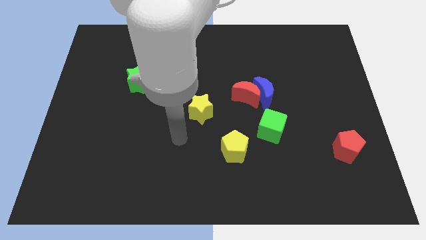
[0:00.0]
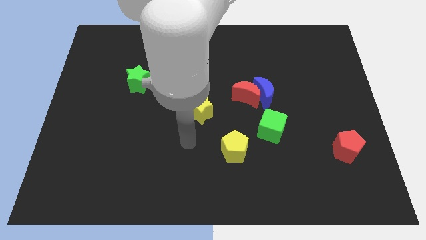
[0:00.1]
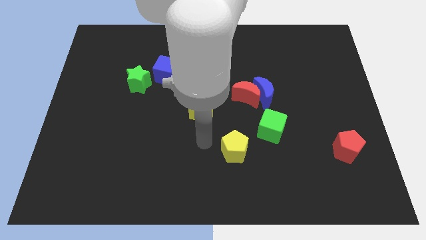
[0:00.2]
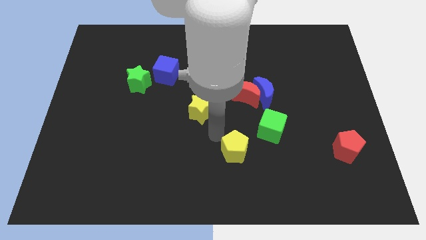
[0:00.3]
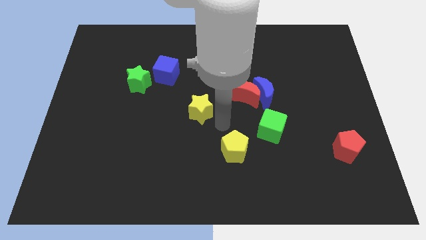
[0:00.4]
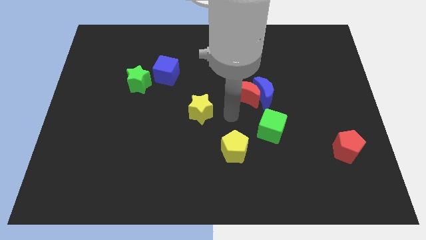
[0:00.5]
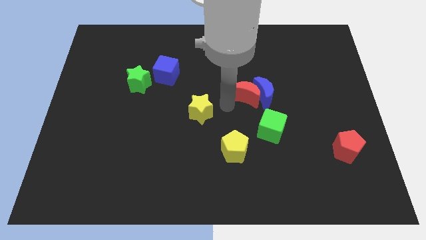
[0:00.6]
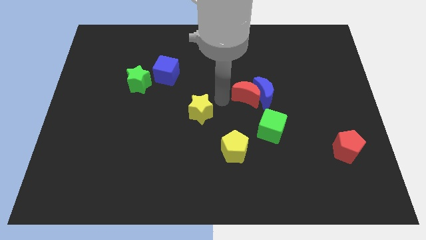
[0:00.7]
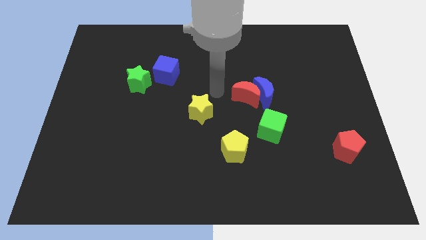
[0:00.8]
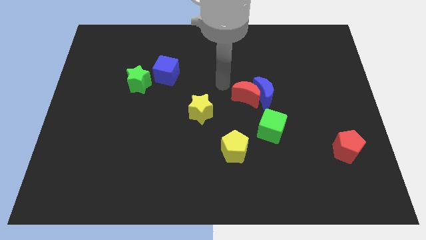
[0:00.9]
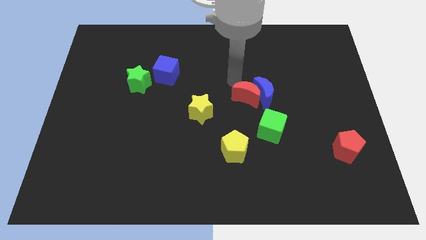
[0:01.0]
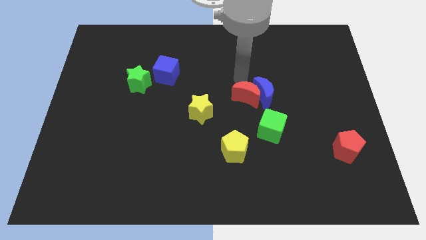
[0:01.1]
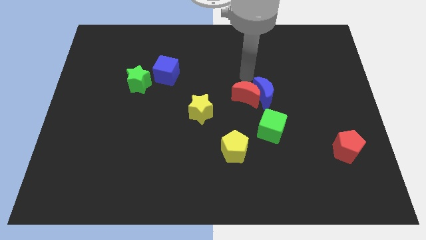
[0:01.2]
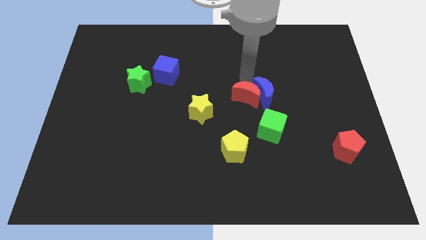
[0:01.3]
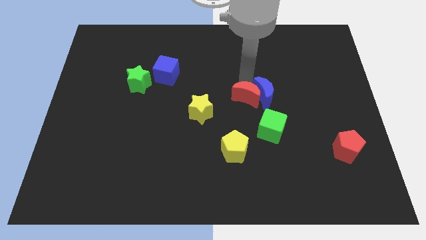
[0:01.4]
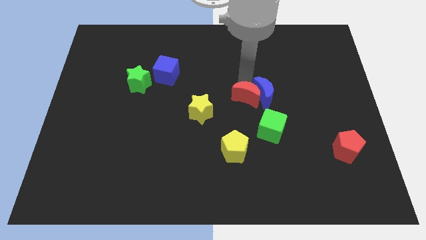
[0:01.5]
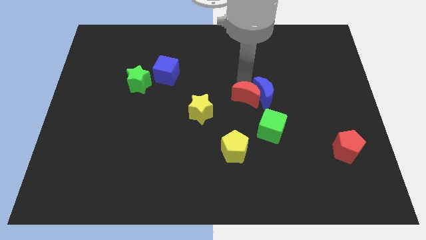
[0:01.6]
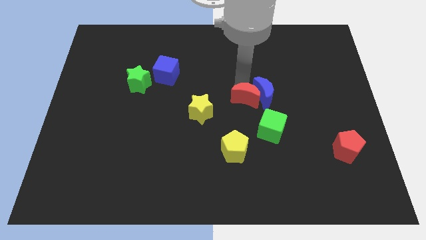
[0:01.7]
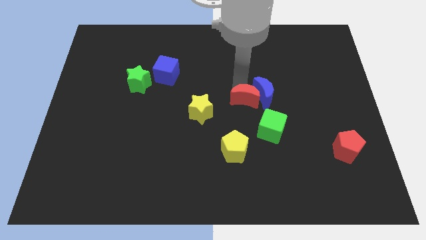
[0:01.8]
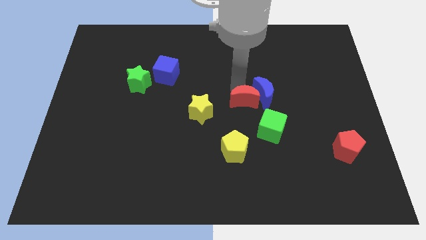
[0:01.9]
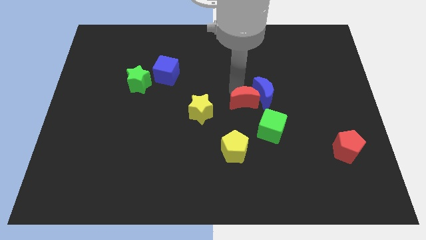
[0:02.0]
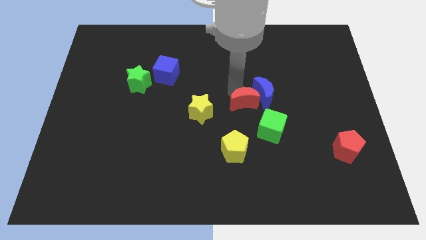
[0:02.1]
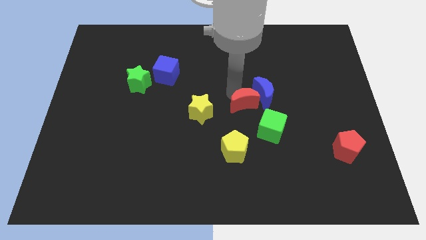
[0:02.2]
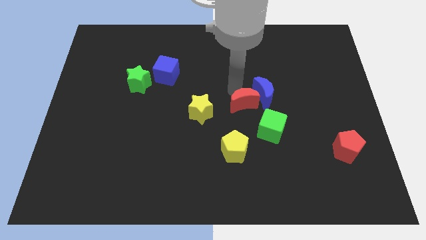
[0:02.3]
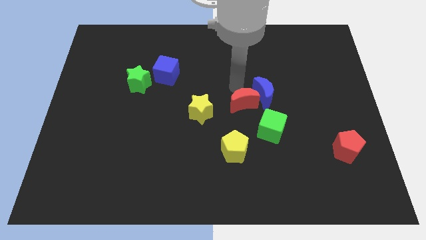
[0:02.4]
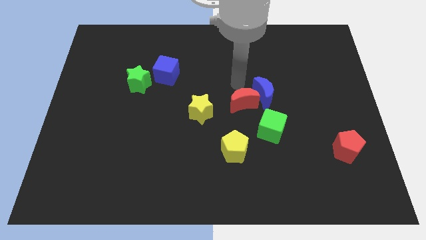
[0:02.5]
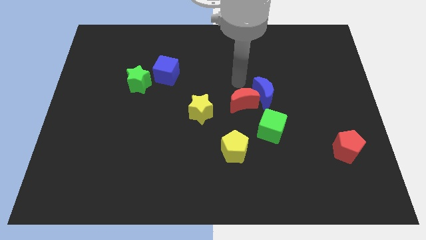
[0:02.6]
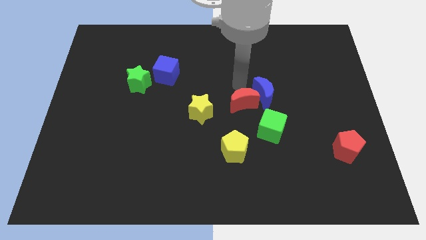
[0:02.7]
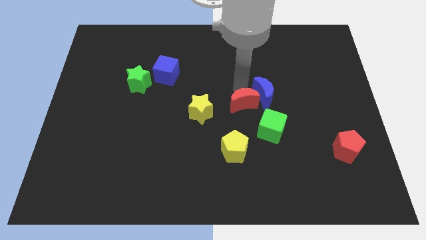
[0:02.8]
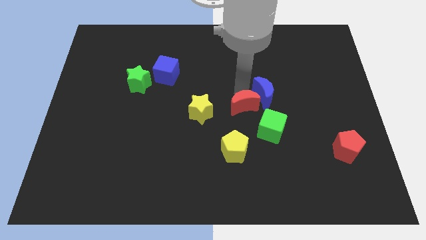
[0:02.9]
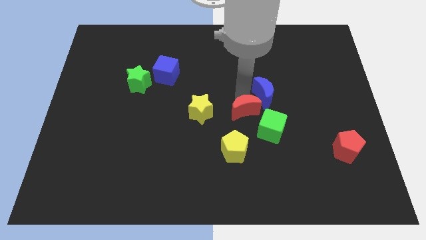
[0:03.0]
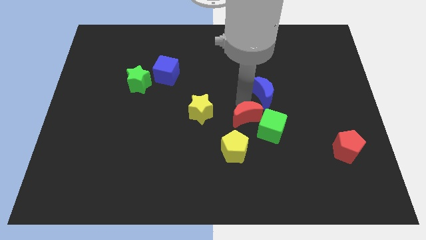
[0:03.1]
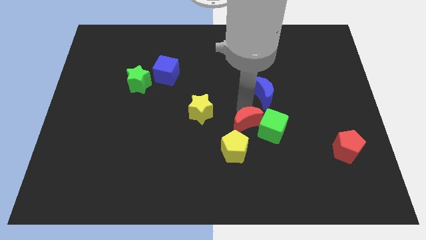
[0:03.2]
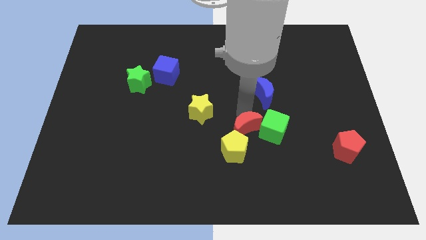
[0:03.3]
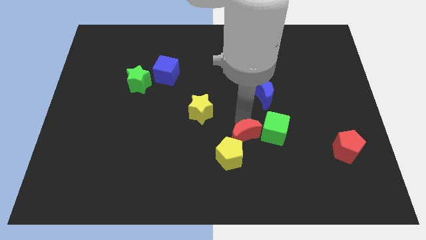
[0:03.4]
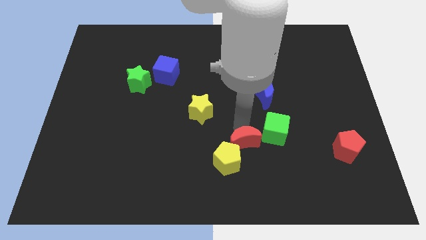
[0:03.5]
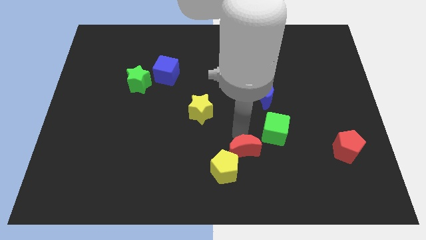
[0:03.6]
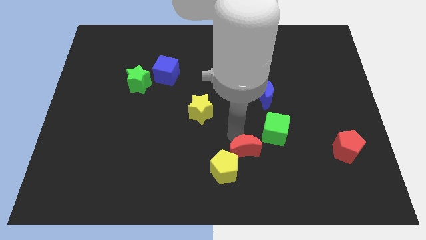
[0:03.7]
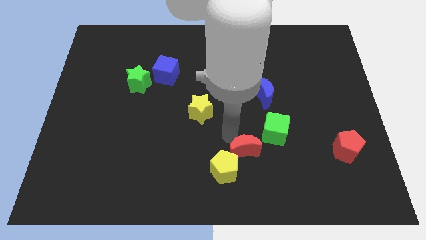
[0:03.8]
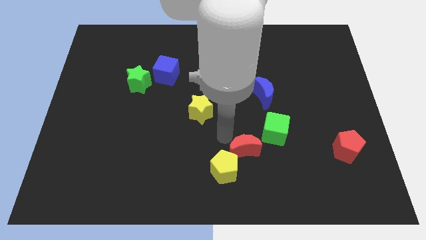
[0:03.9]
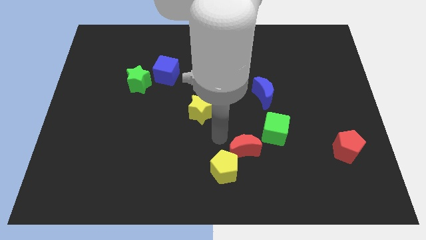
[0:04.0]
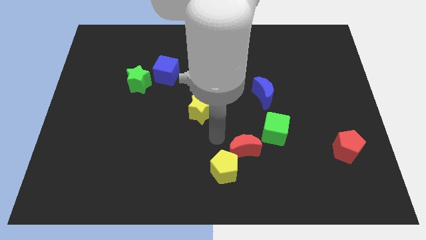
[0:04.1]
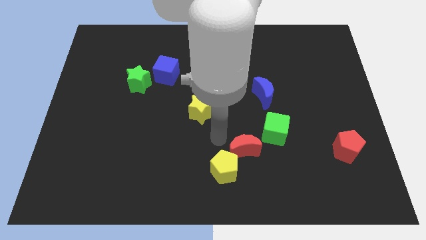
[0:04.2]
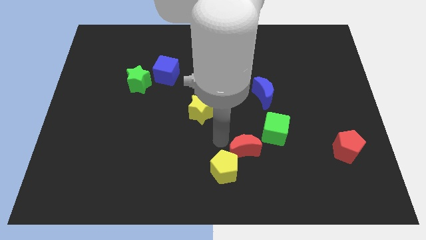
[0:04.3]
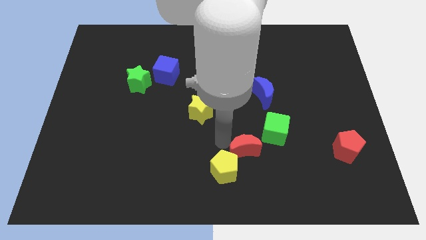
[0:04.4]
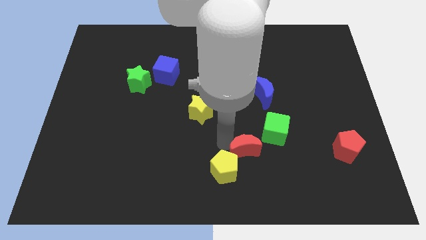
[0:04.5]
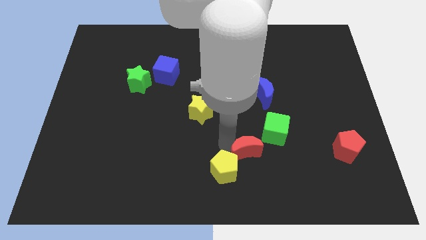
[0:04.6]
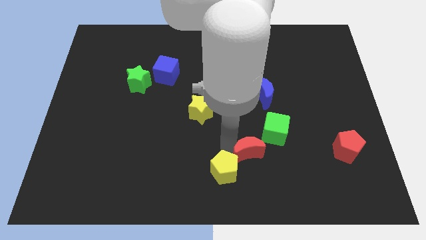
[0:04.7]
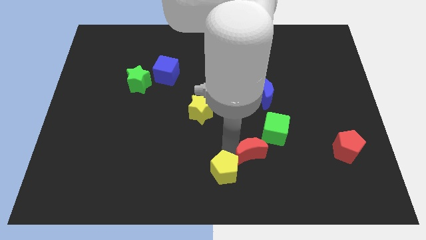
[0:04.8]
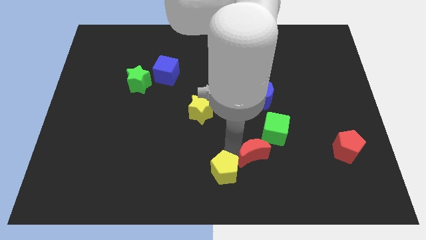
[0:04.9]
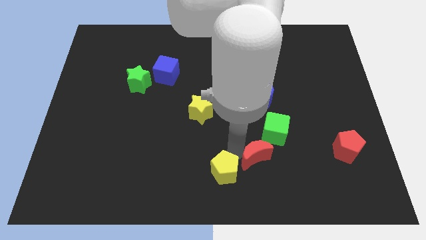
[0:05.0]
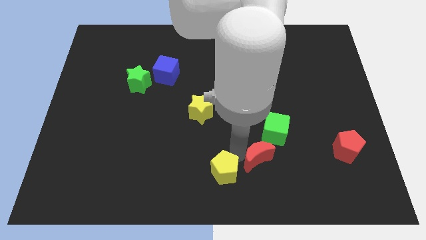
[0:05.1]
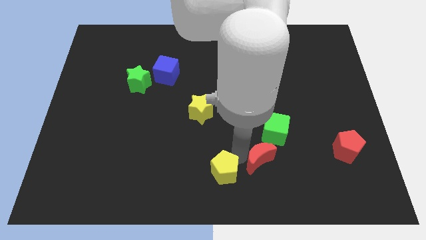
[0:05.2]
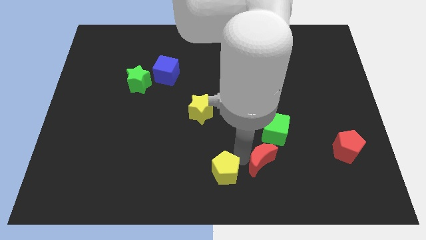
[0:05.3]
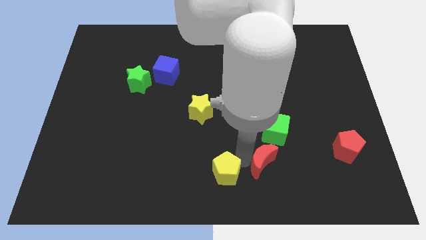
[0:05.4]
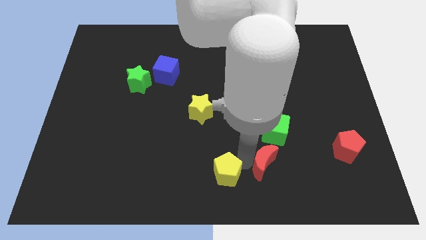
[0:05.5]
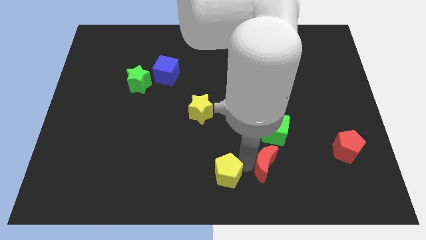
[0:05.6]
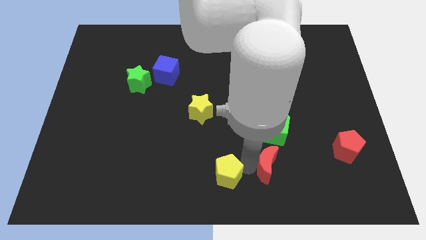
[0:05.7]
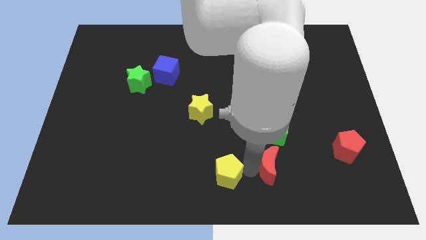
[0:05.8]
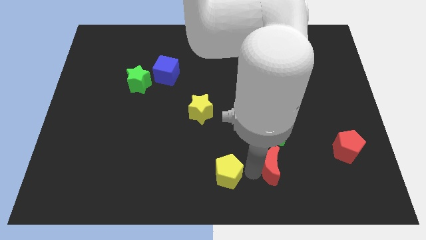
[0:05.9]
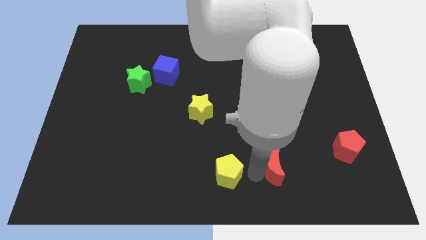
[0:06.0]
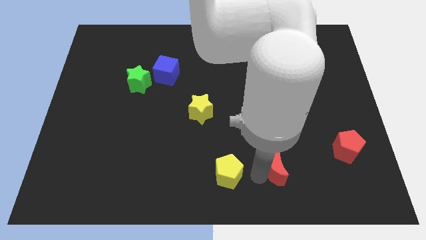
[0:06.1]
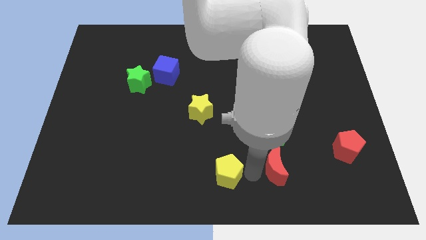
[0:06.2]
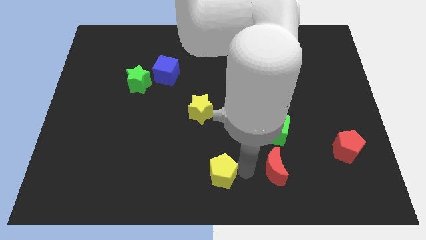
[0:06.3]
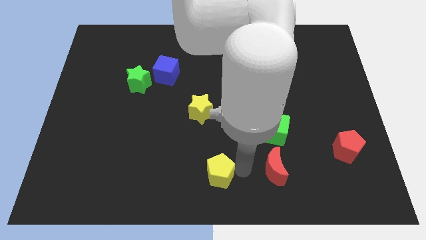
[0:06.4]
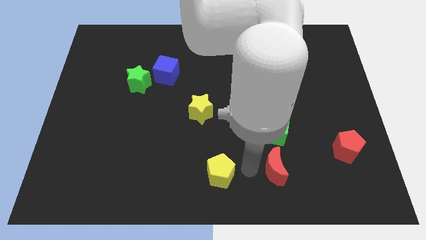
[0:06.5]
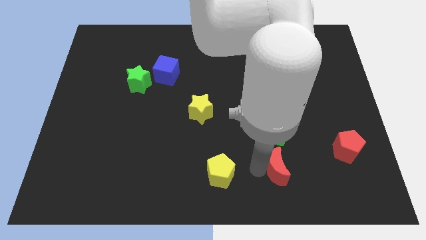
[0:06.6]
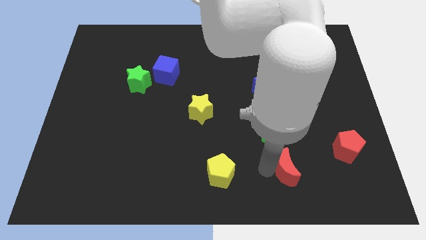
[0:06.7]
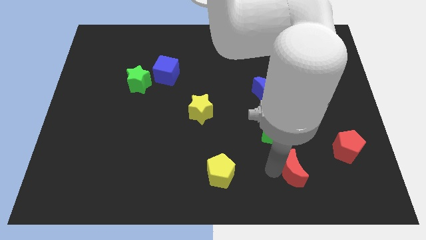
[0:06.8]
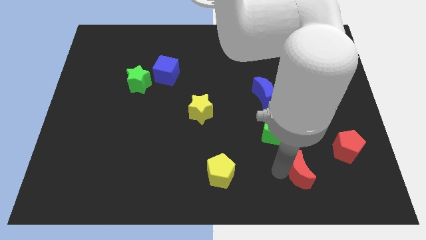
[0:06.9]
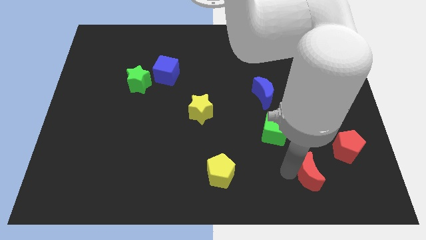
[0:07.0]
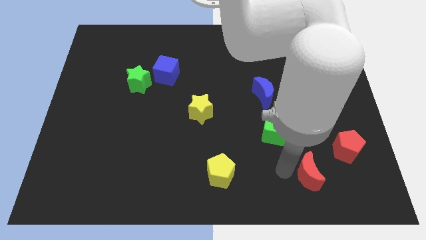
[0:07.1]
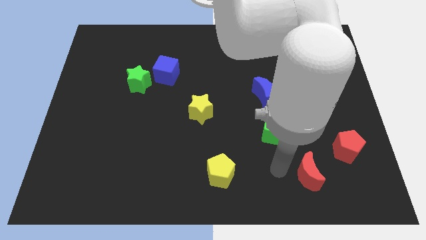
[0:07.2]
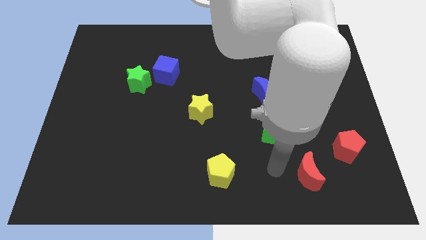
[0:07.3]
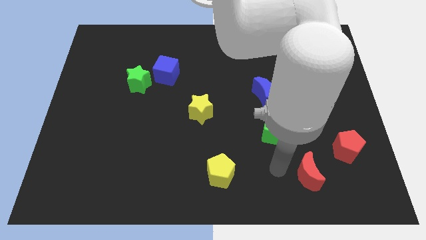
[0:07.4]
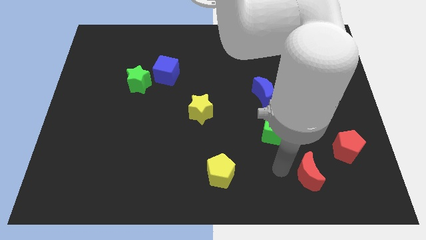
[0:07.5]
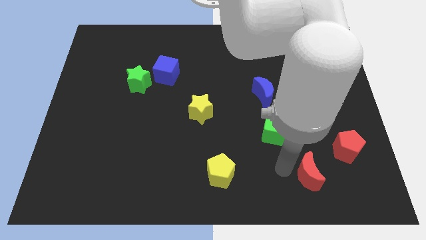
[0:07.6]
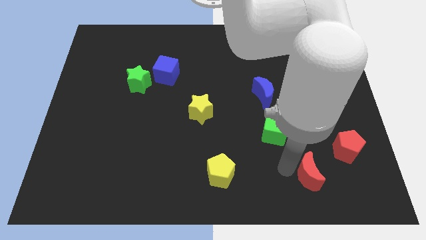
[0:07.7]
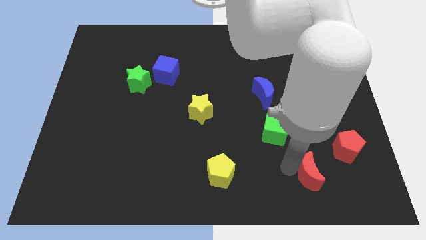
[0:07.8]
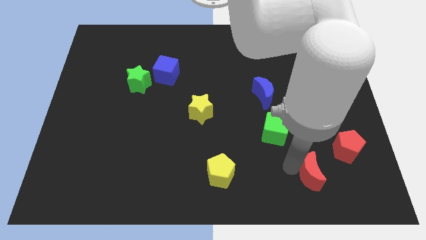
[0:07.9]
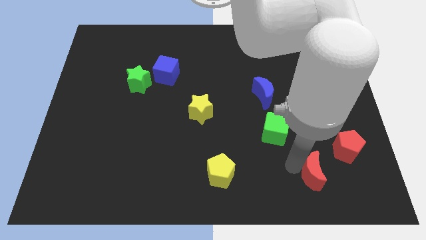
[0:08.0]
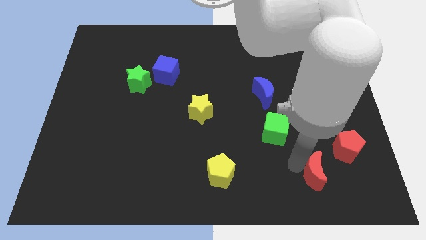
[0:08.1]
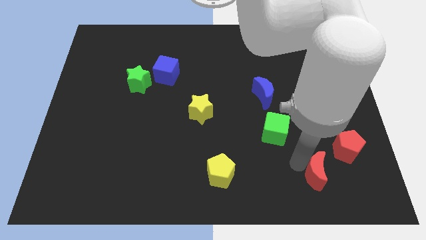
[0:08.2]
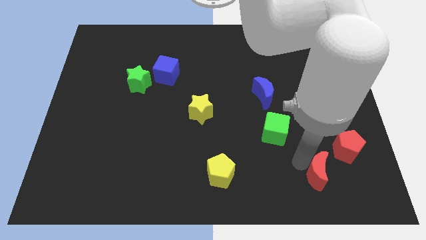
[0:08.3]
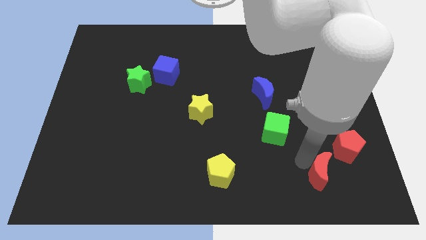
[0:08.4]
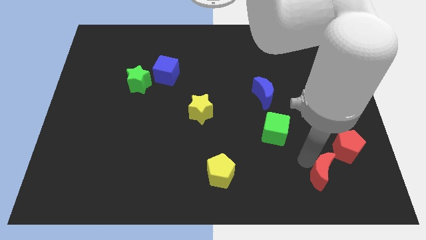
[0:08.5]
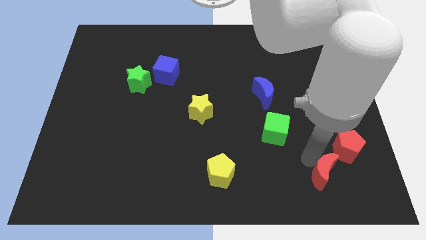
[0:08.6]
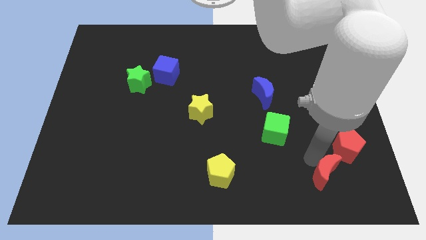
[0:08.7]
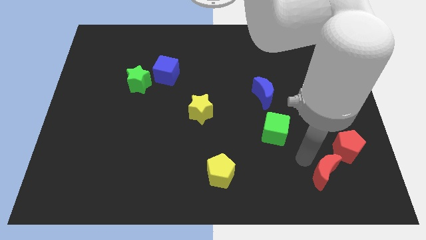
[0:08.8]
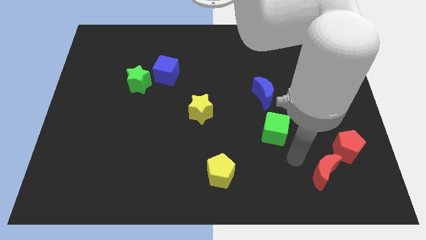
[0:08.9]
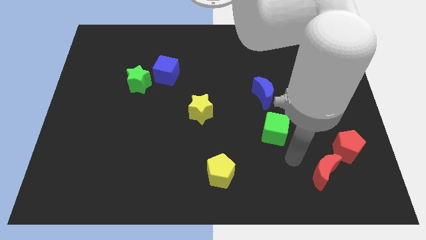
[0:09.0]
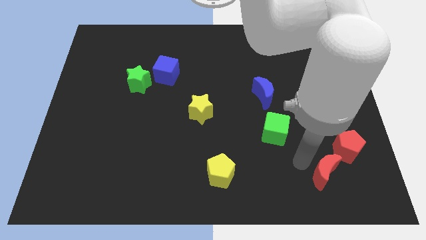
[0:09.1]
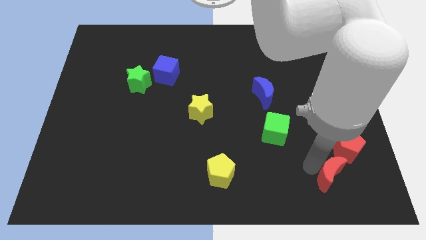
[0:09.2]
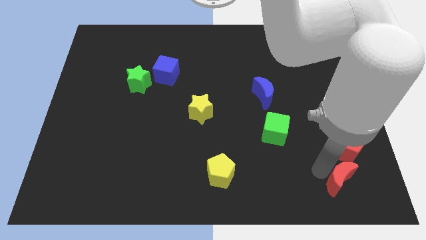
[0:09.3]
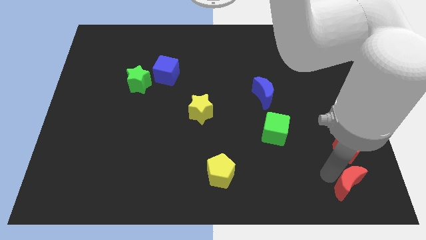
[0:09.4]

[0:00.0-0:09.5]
put the red moon to the bottom right of the board
